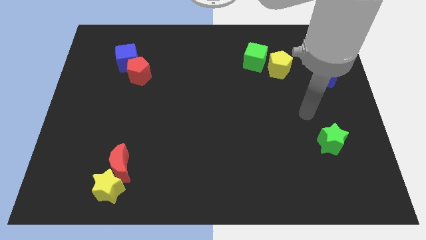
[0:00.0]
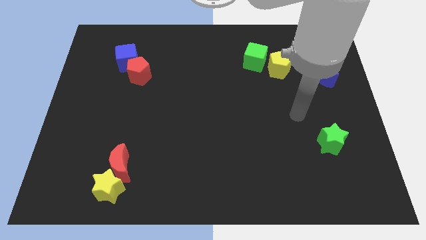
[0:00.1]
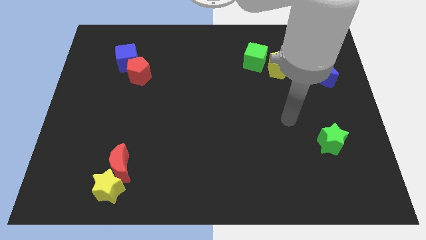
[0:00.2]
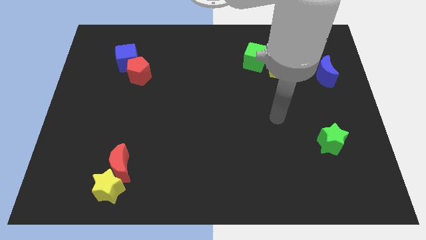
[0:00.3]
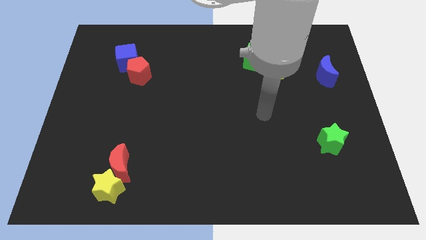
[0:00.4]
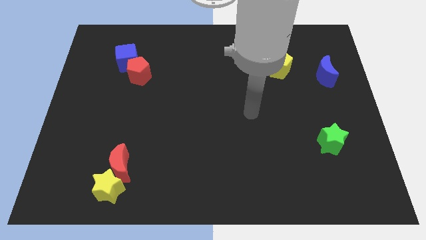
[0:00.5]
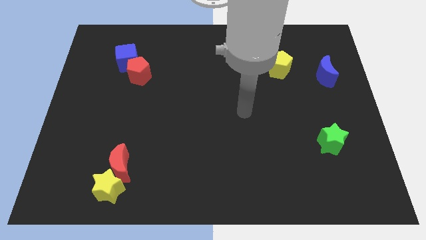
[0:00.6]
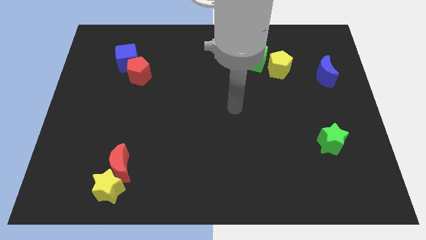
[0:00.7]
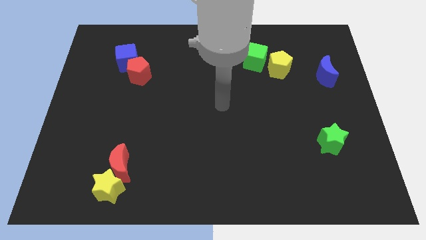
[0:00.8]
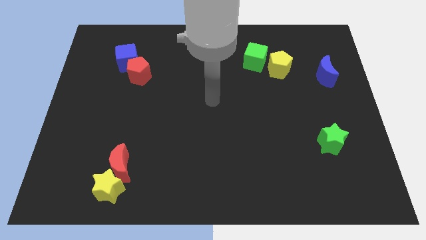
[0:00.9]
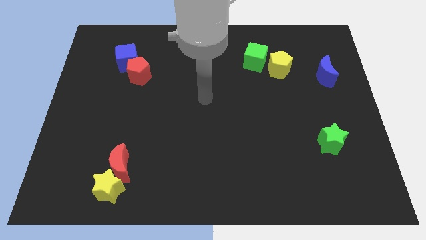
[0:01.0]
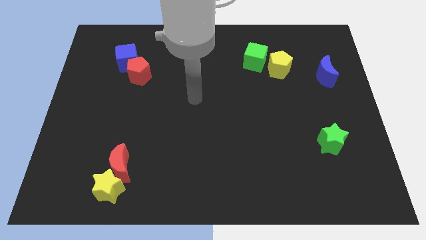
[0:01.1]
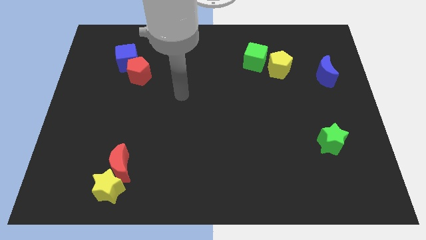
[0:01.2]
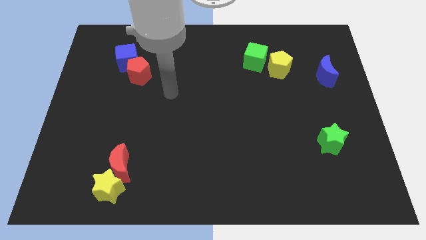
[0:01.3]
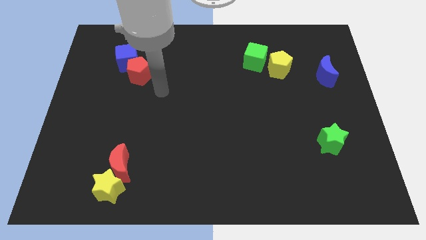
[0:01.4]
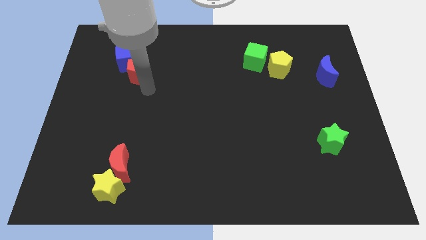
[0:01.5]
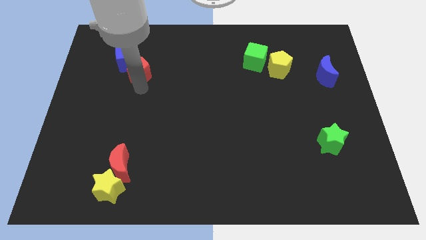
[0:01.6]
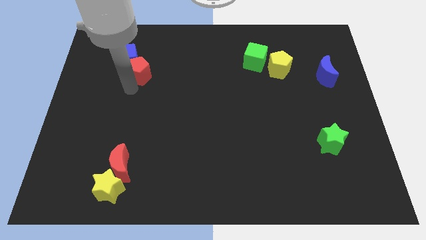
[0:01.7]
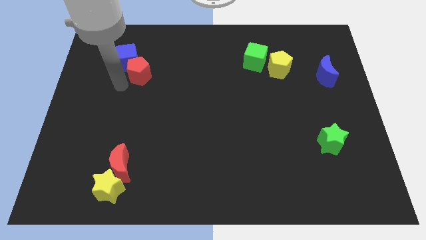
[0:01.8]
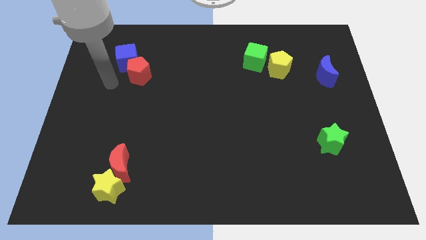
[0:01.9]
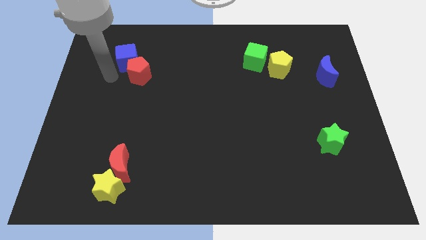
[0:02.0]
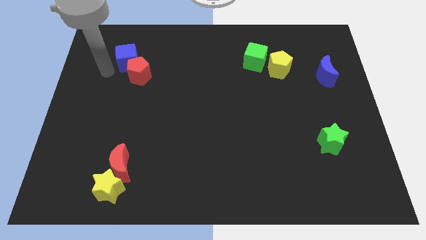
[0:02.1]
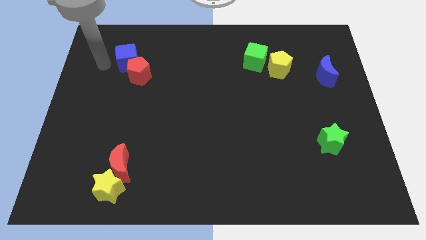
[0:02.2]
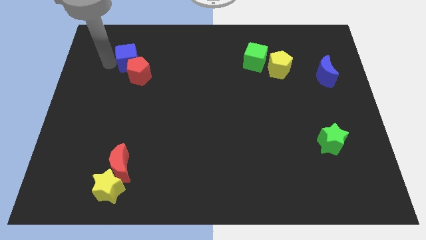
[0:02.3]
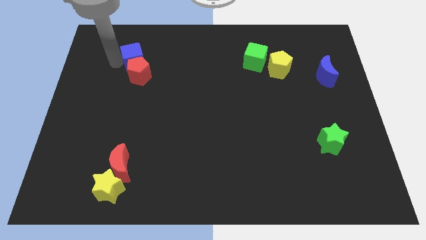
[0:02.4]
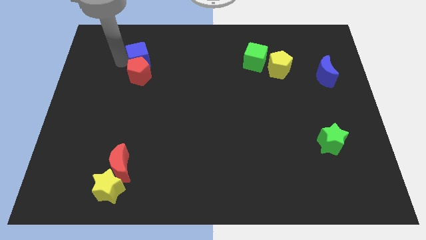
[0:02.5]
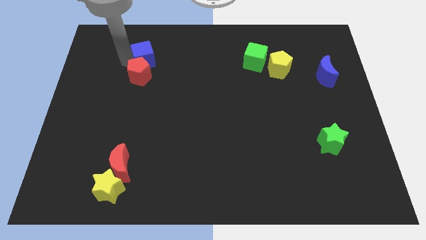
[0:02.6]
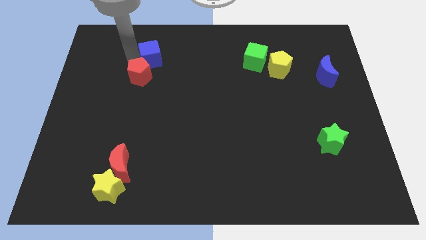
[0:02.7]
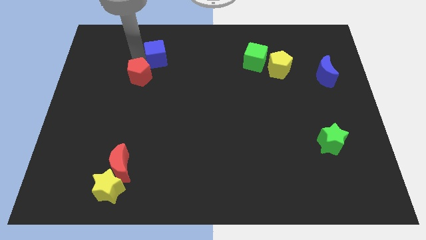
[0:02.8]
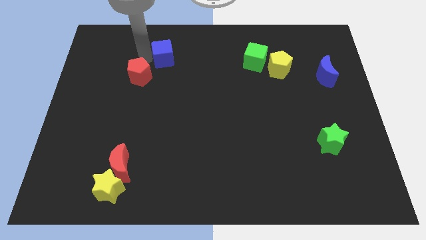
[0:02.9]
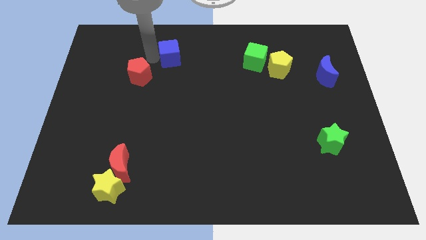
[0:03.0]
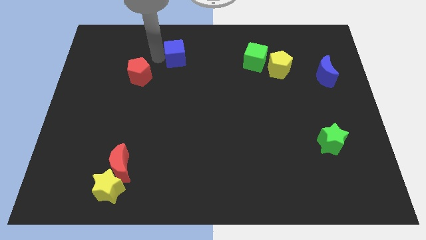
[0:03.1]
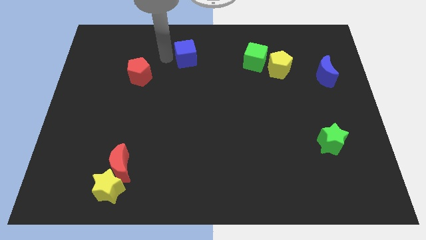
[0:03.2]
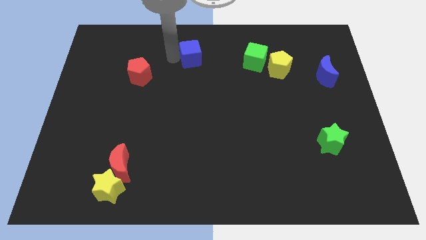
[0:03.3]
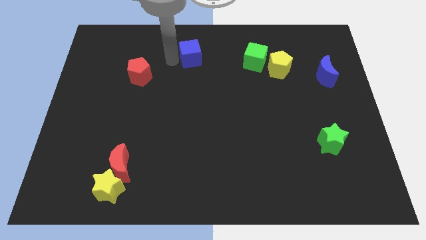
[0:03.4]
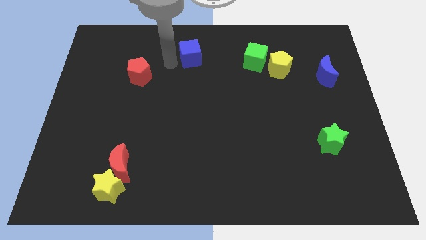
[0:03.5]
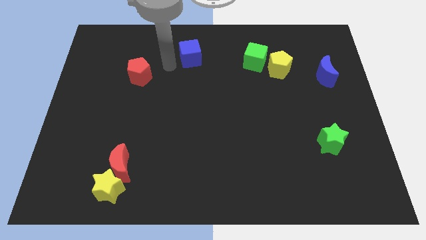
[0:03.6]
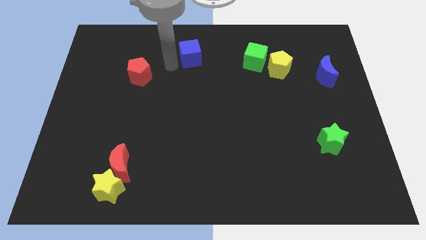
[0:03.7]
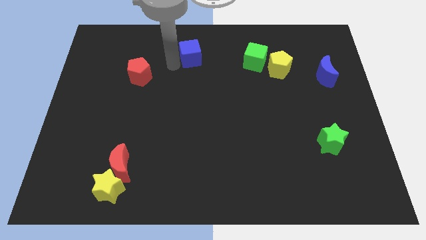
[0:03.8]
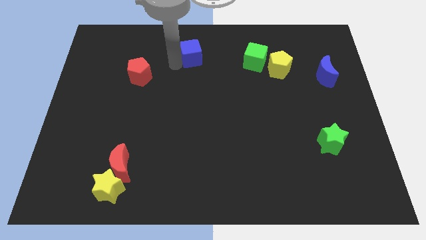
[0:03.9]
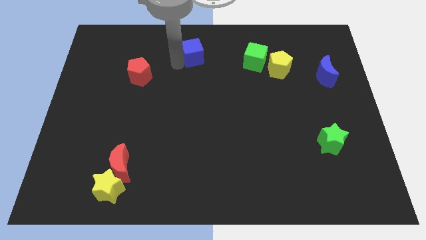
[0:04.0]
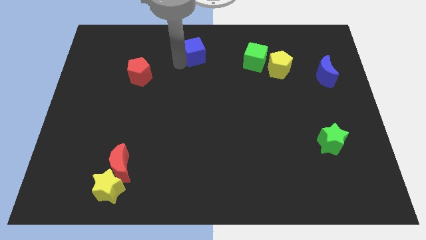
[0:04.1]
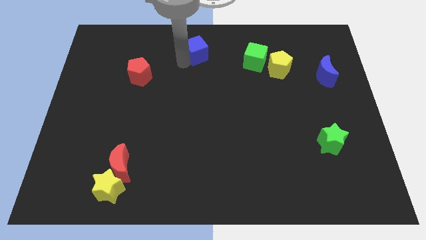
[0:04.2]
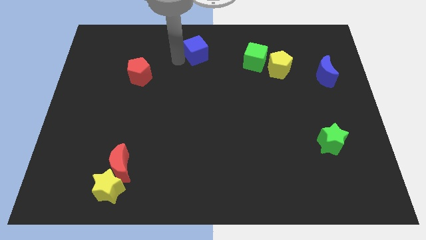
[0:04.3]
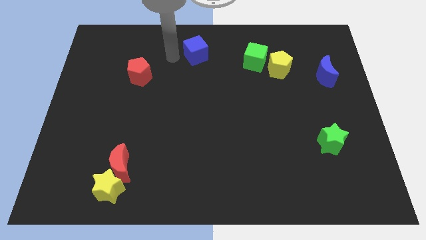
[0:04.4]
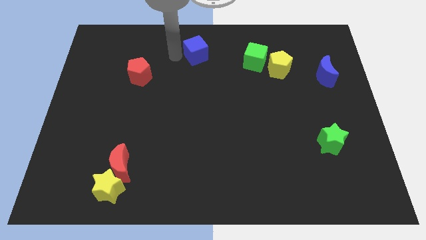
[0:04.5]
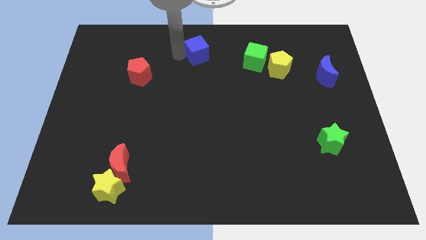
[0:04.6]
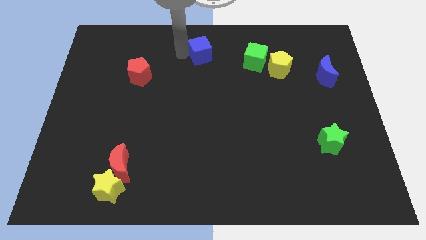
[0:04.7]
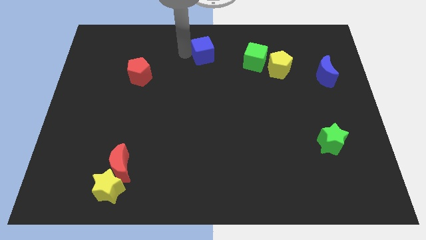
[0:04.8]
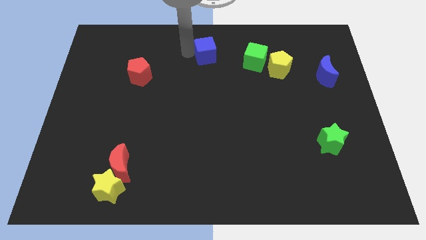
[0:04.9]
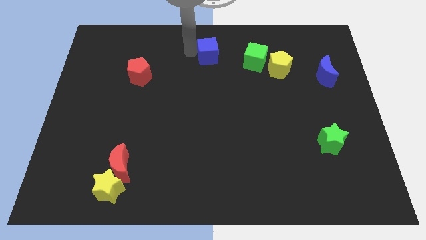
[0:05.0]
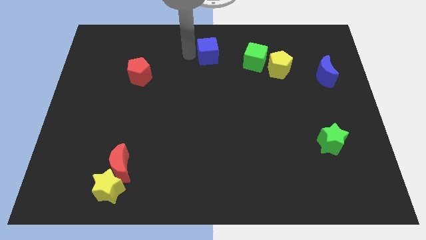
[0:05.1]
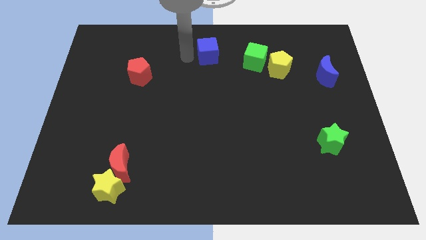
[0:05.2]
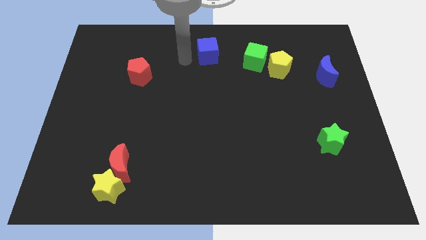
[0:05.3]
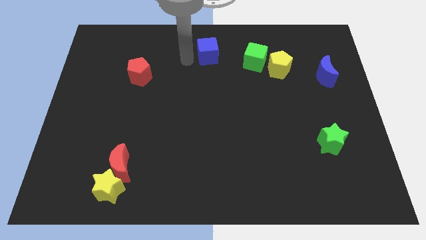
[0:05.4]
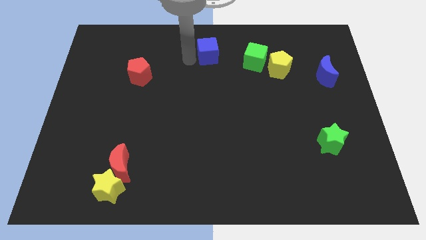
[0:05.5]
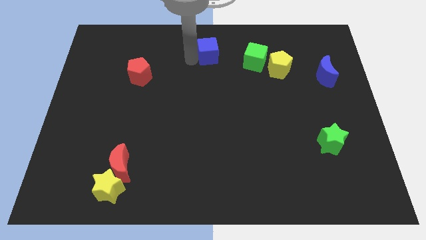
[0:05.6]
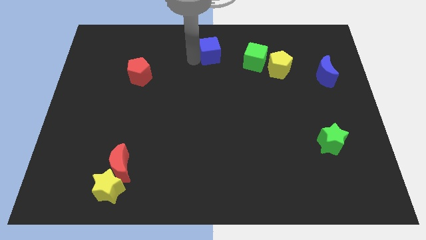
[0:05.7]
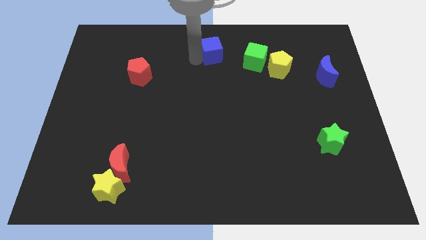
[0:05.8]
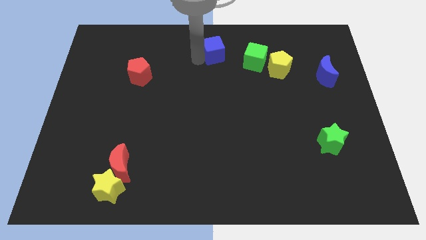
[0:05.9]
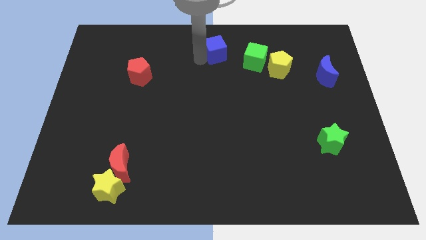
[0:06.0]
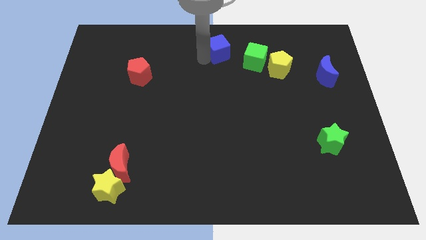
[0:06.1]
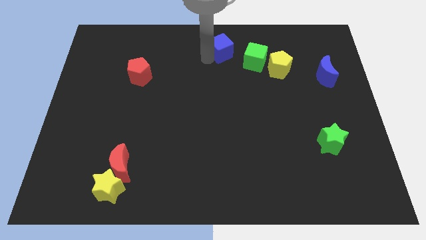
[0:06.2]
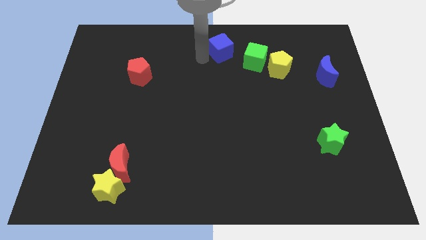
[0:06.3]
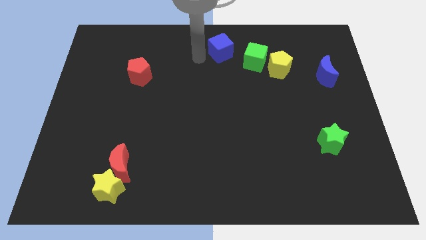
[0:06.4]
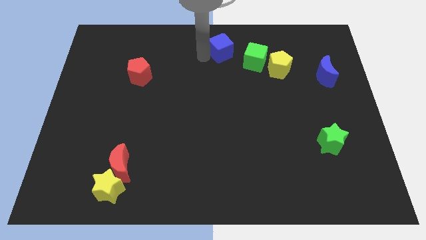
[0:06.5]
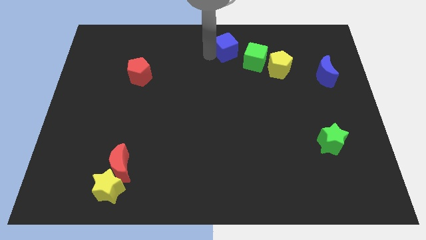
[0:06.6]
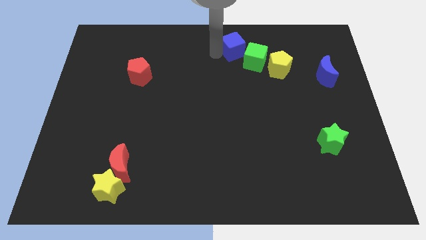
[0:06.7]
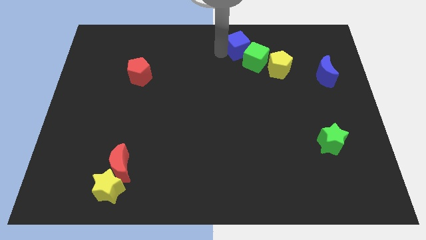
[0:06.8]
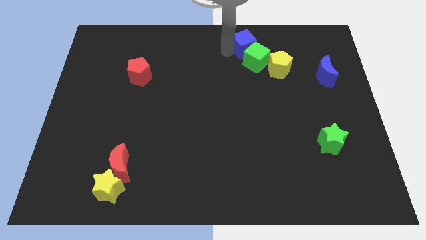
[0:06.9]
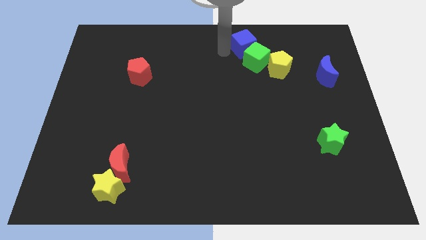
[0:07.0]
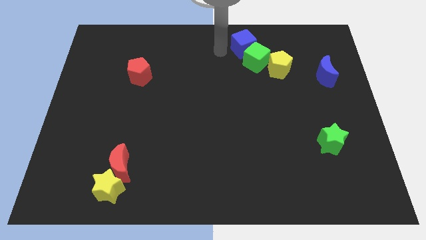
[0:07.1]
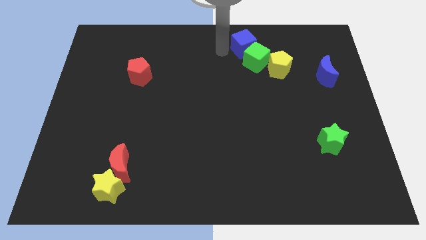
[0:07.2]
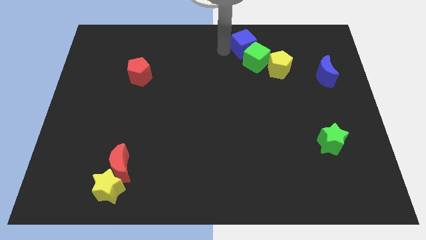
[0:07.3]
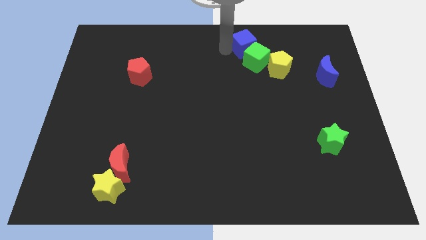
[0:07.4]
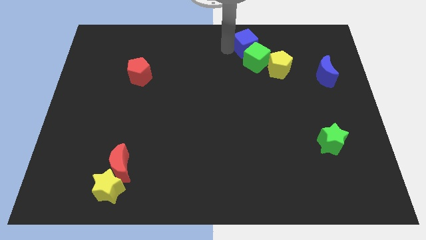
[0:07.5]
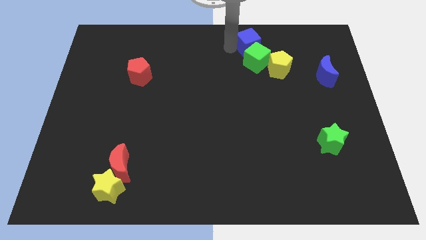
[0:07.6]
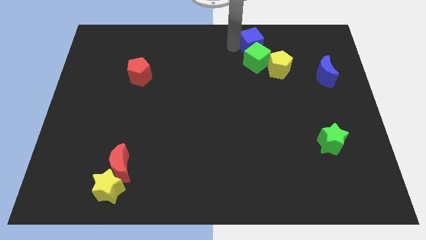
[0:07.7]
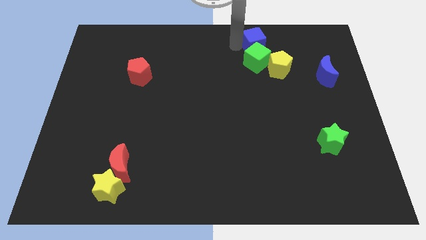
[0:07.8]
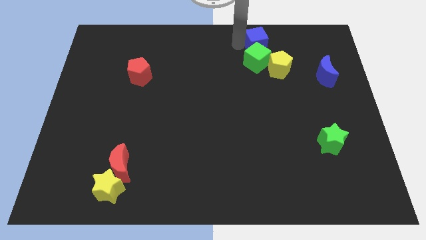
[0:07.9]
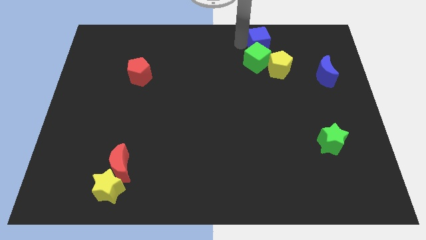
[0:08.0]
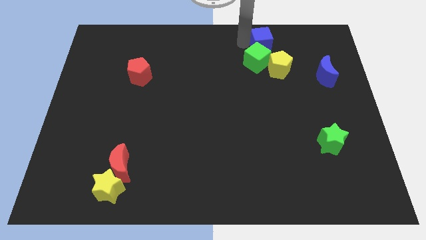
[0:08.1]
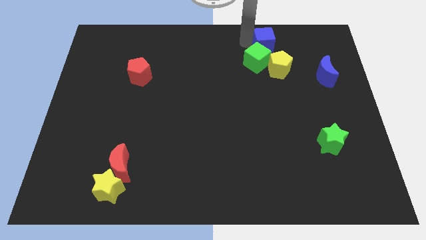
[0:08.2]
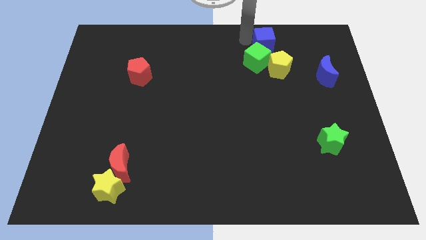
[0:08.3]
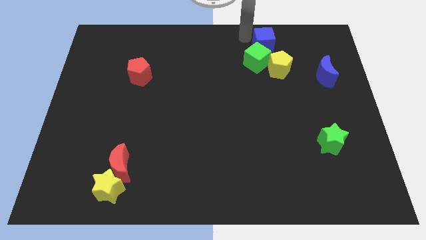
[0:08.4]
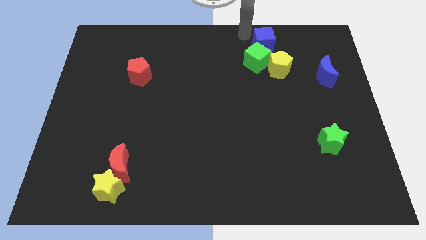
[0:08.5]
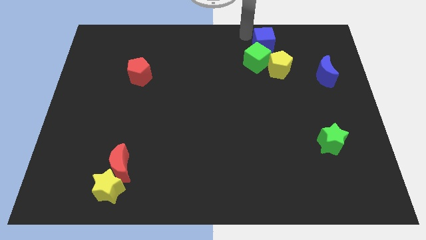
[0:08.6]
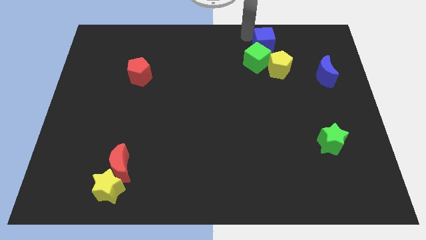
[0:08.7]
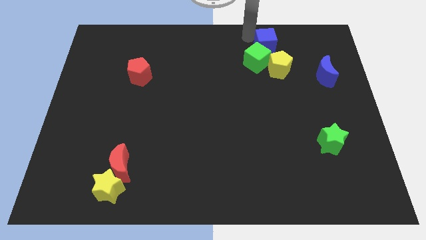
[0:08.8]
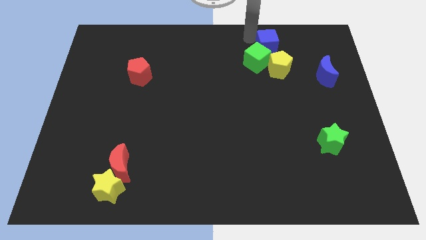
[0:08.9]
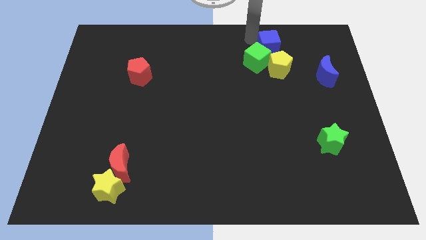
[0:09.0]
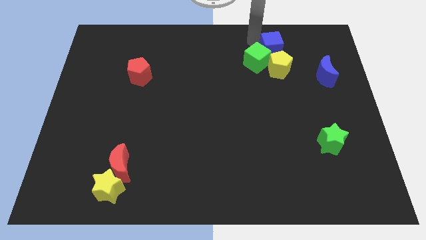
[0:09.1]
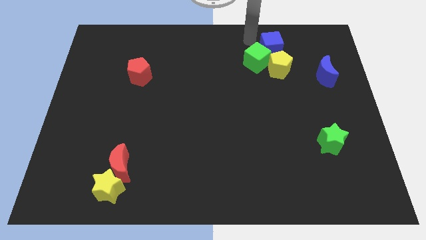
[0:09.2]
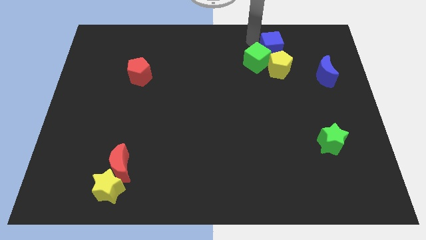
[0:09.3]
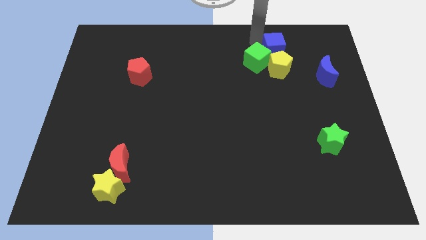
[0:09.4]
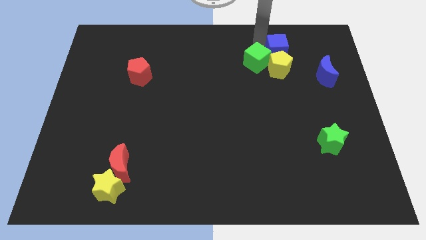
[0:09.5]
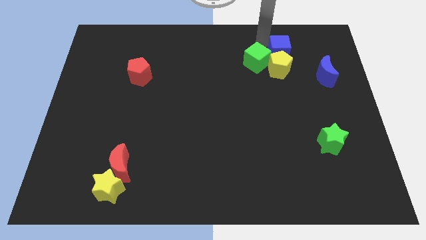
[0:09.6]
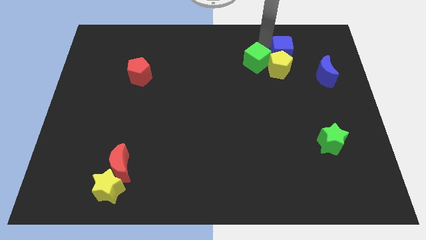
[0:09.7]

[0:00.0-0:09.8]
slide the blue cube to the top left of the blue moon
